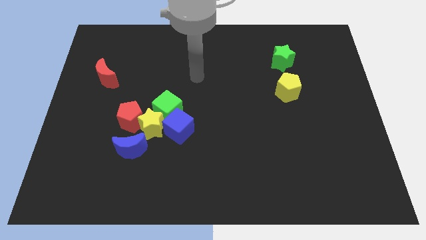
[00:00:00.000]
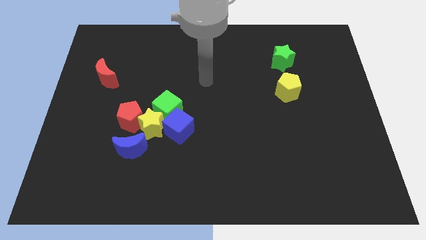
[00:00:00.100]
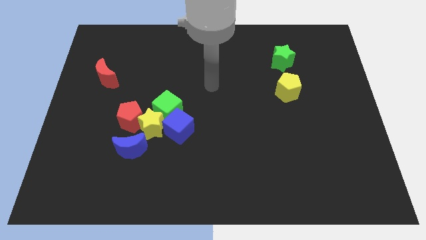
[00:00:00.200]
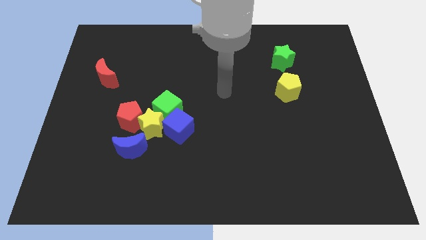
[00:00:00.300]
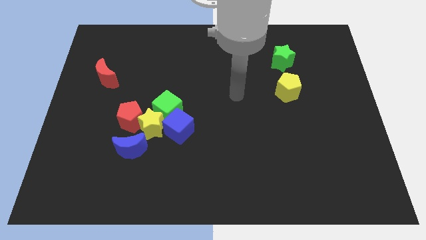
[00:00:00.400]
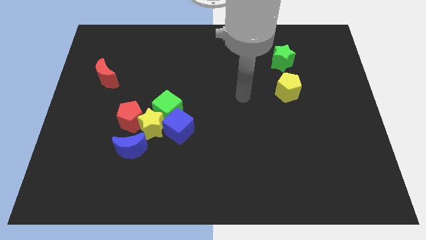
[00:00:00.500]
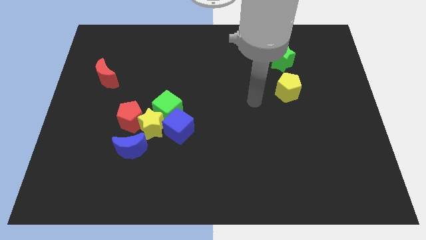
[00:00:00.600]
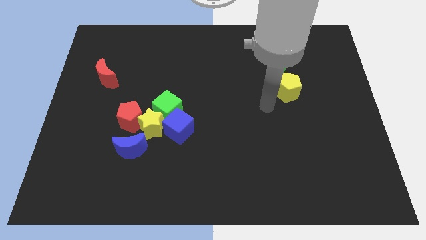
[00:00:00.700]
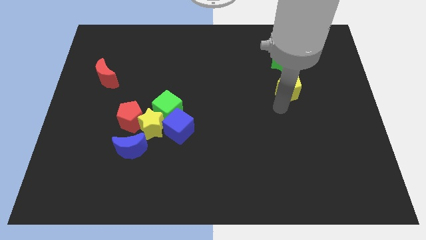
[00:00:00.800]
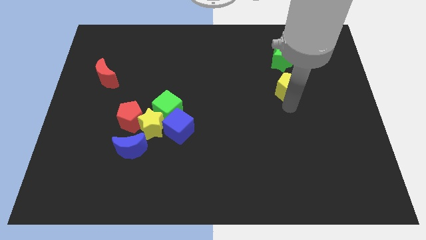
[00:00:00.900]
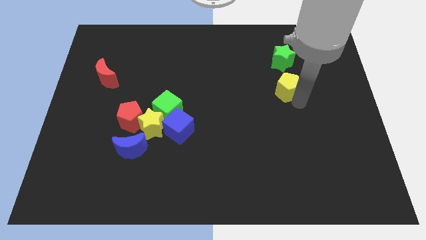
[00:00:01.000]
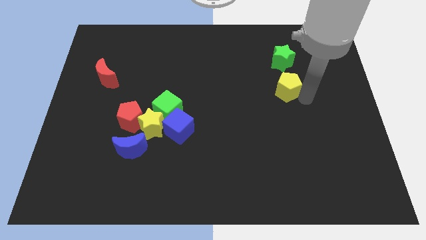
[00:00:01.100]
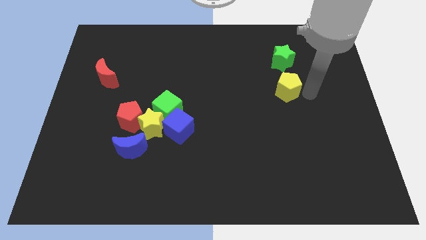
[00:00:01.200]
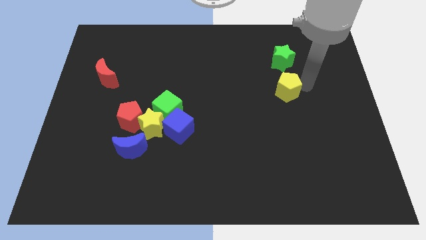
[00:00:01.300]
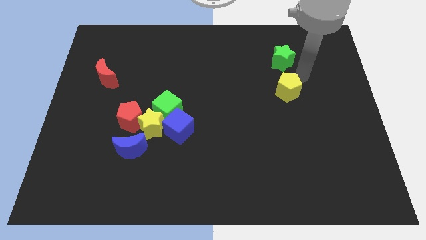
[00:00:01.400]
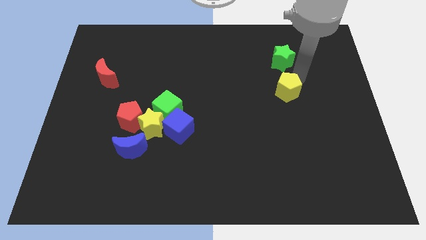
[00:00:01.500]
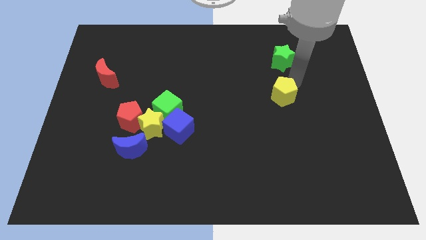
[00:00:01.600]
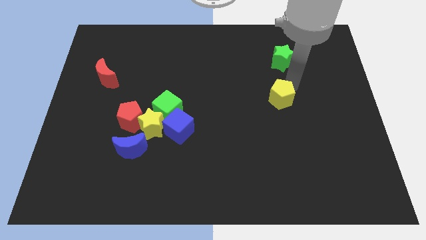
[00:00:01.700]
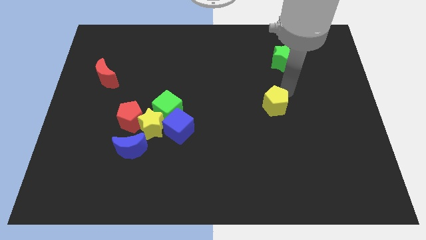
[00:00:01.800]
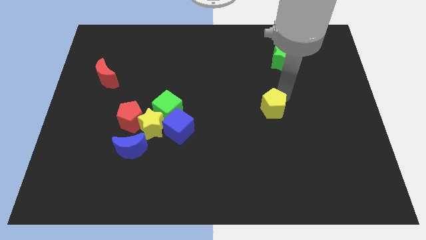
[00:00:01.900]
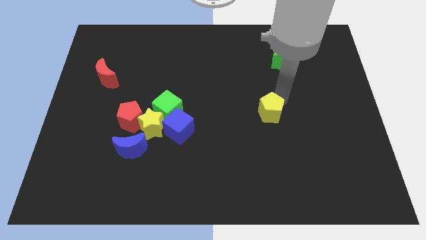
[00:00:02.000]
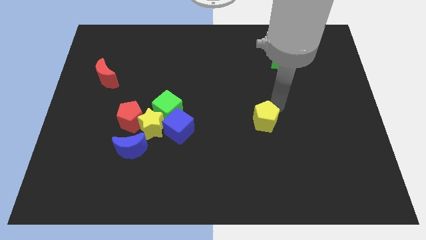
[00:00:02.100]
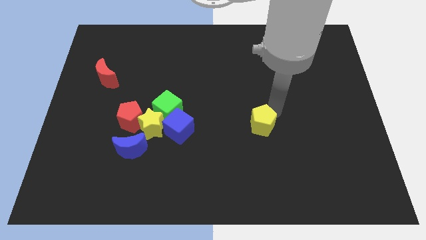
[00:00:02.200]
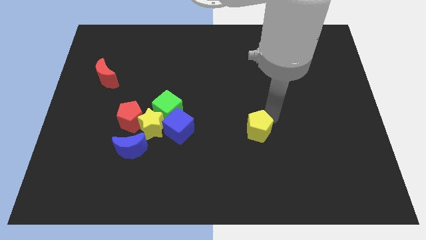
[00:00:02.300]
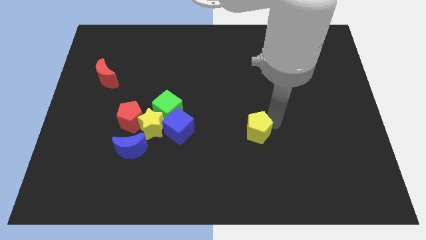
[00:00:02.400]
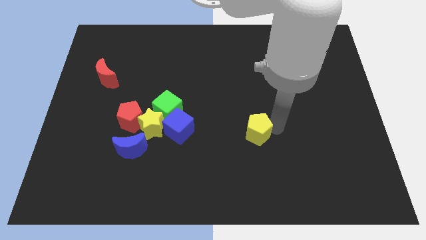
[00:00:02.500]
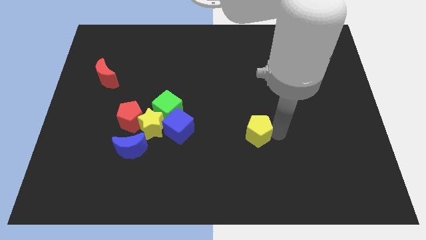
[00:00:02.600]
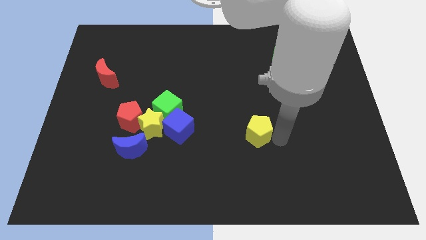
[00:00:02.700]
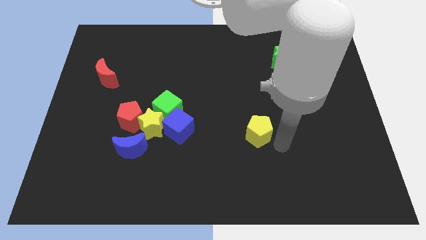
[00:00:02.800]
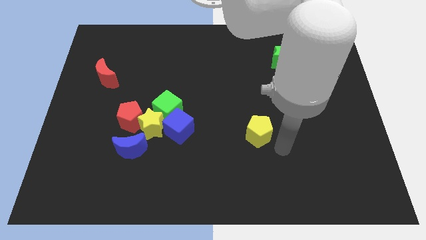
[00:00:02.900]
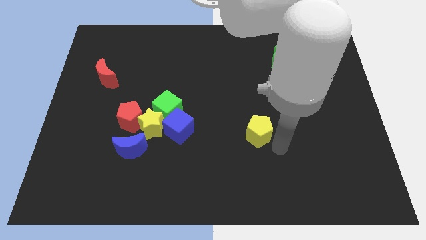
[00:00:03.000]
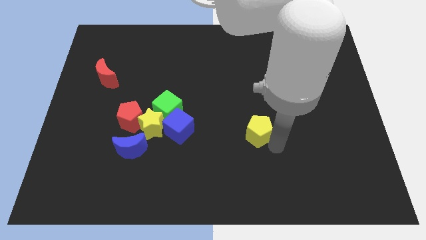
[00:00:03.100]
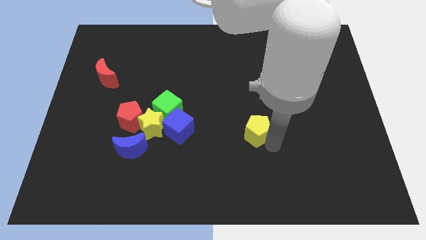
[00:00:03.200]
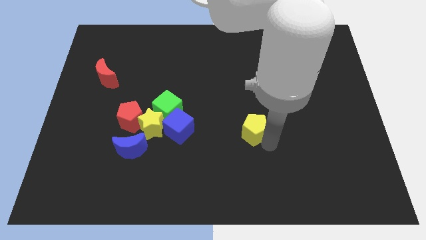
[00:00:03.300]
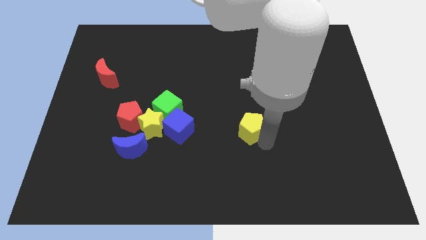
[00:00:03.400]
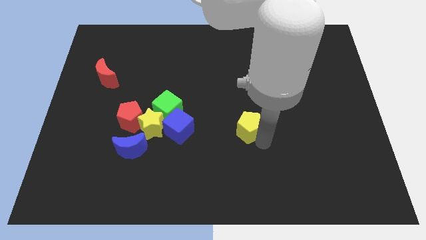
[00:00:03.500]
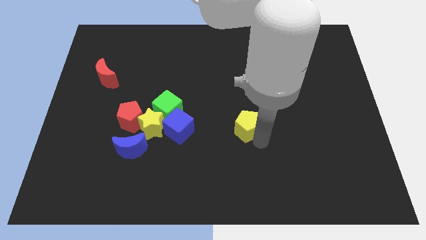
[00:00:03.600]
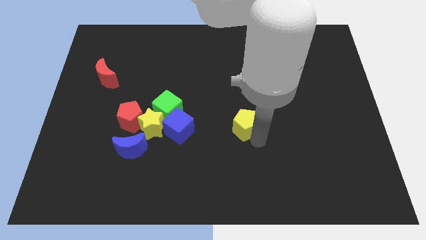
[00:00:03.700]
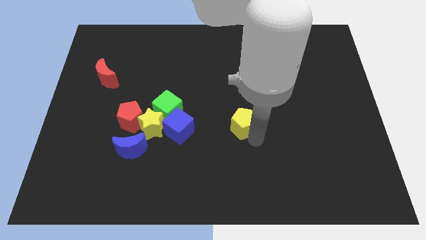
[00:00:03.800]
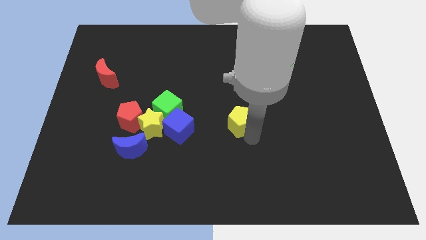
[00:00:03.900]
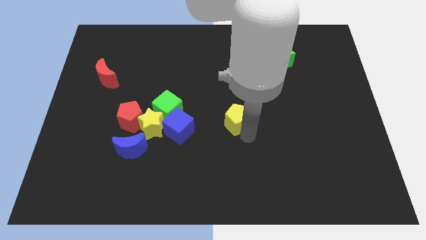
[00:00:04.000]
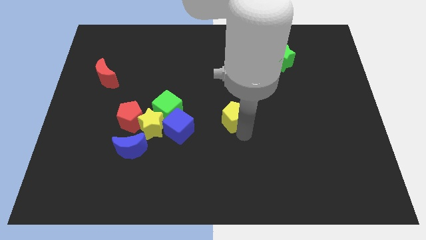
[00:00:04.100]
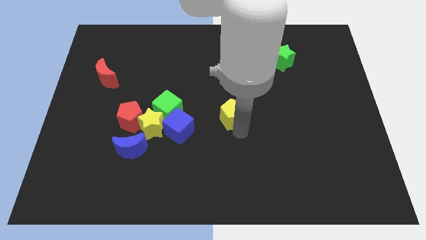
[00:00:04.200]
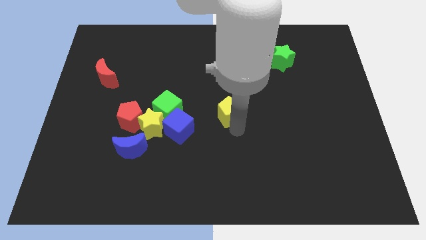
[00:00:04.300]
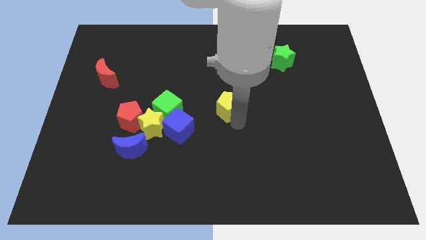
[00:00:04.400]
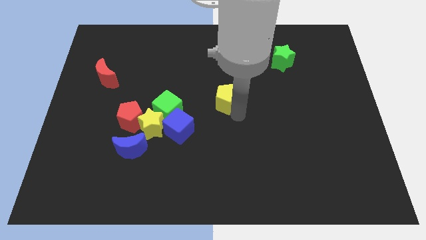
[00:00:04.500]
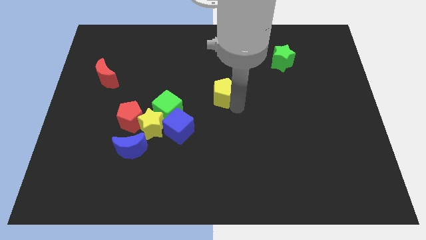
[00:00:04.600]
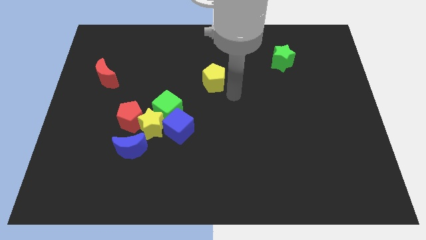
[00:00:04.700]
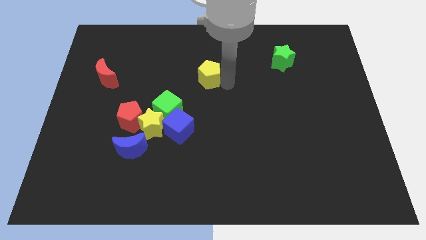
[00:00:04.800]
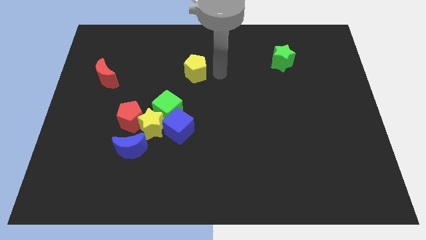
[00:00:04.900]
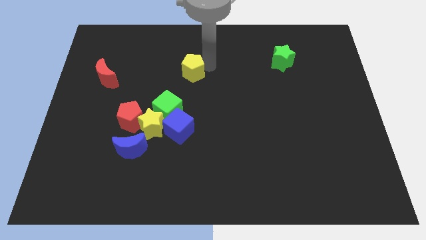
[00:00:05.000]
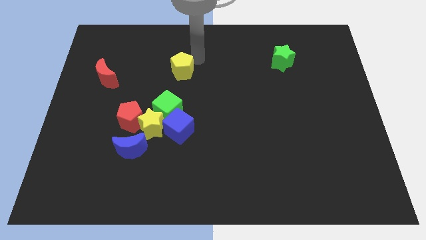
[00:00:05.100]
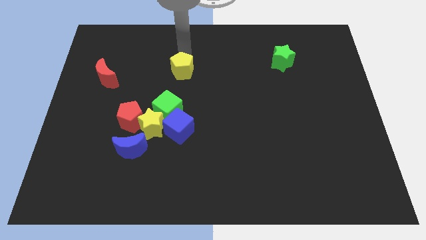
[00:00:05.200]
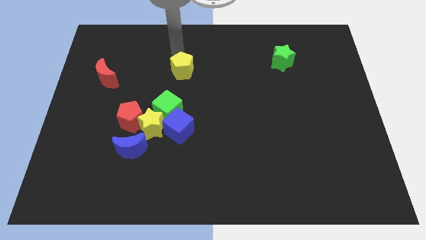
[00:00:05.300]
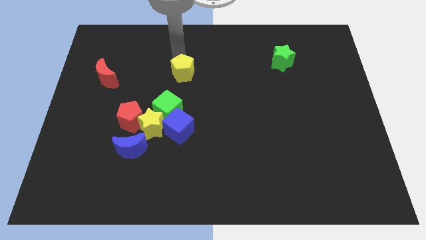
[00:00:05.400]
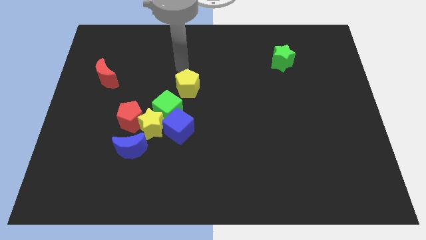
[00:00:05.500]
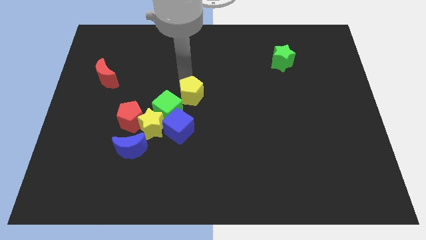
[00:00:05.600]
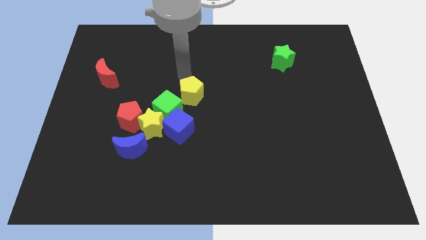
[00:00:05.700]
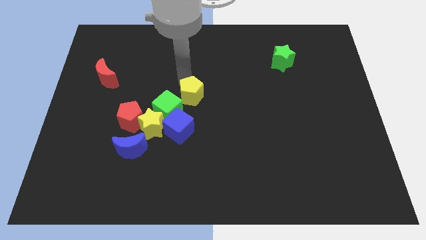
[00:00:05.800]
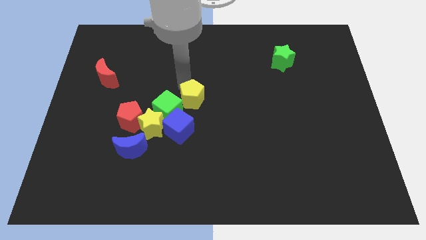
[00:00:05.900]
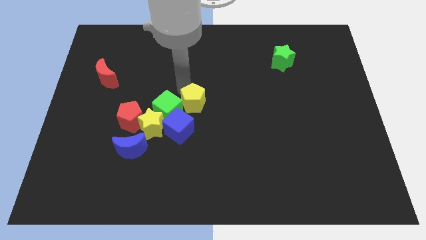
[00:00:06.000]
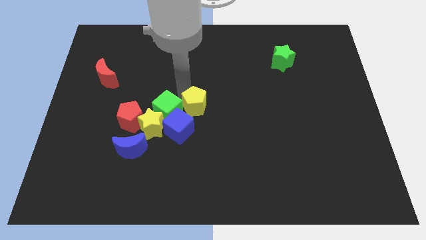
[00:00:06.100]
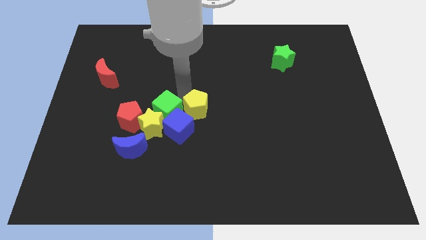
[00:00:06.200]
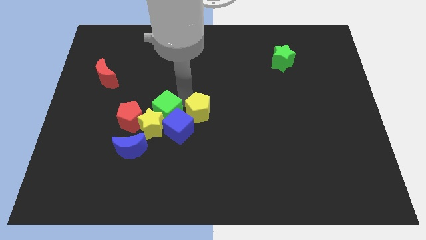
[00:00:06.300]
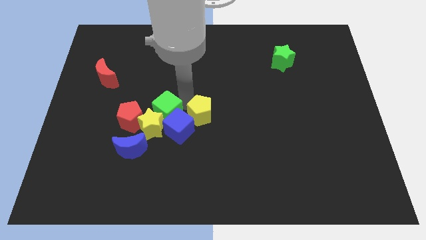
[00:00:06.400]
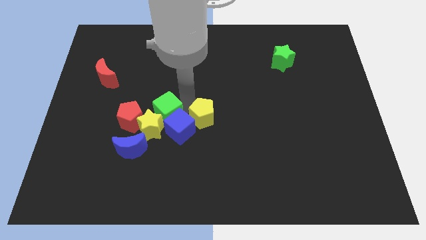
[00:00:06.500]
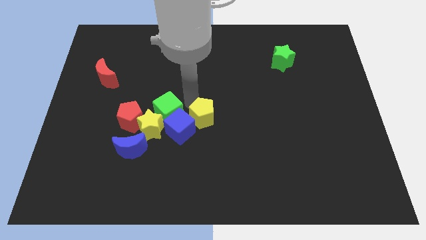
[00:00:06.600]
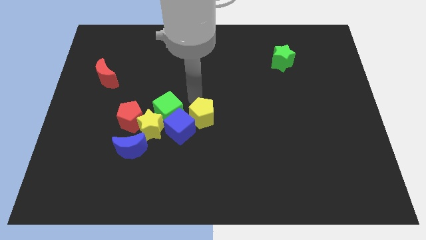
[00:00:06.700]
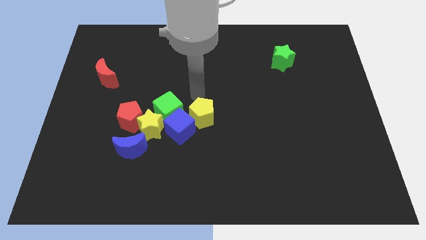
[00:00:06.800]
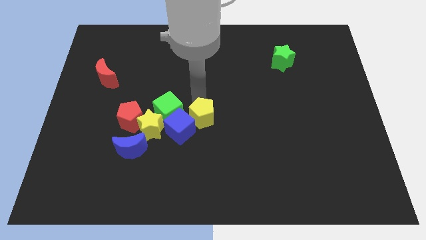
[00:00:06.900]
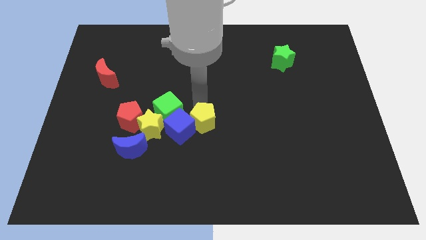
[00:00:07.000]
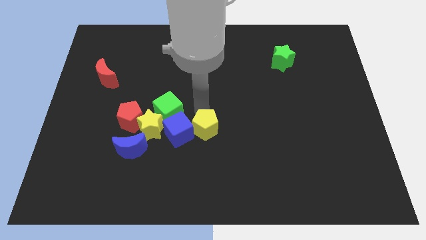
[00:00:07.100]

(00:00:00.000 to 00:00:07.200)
push the yellow pentagon downwards and then left

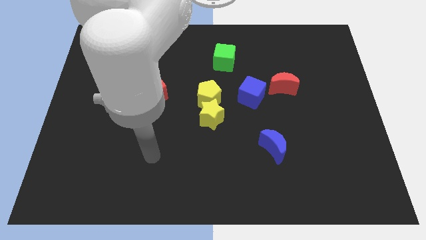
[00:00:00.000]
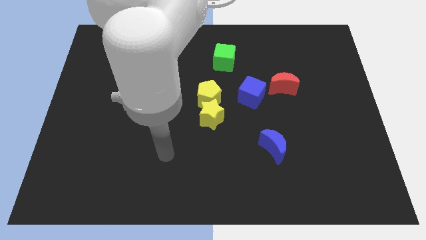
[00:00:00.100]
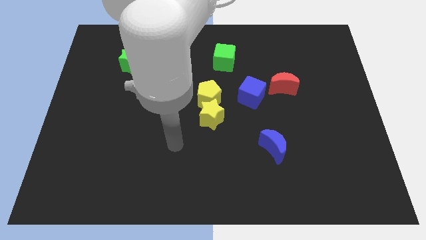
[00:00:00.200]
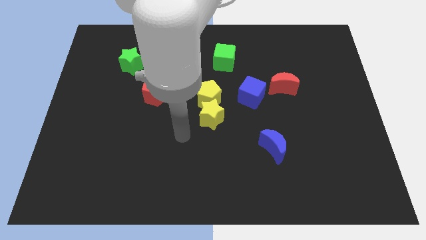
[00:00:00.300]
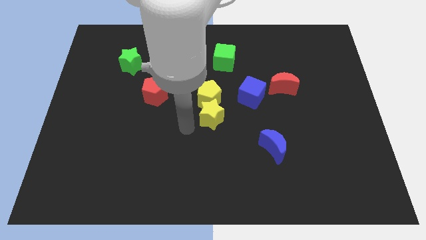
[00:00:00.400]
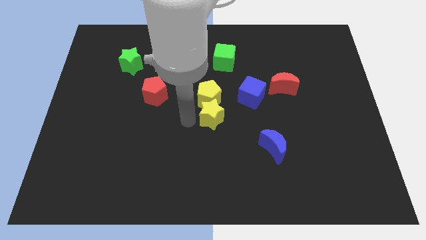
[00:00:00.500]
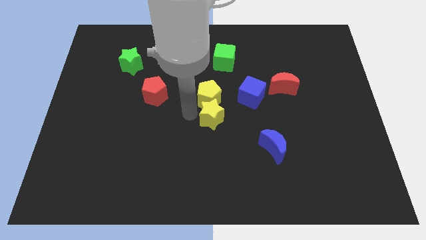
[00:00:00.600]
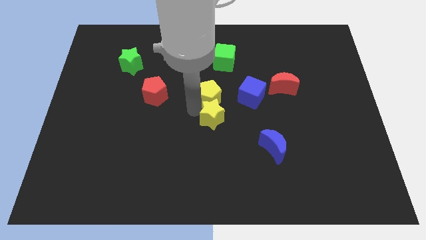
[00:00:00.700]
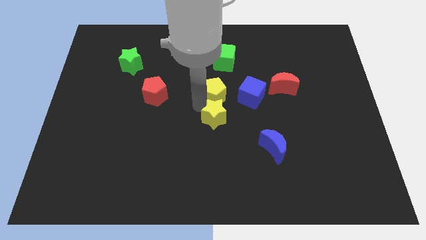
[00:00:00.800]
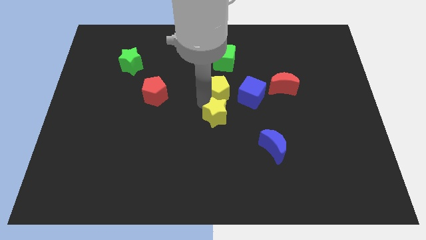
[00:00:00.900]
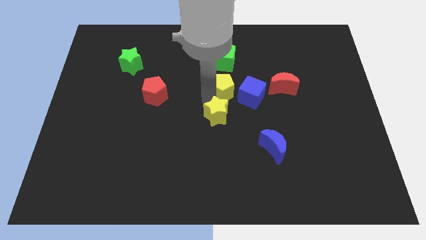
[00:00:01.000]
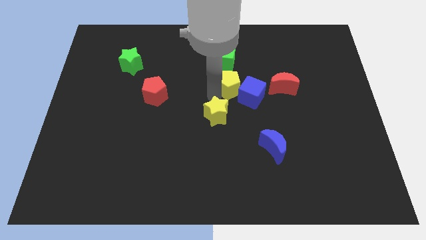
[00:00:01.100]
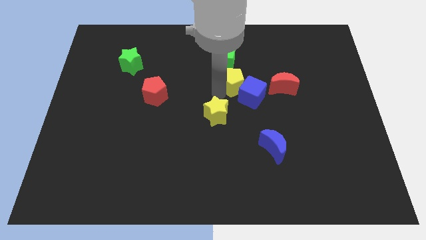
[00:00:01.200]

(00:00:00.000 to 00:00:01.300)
push the yellow pentagon somewhat up and right
